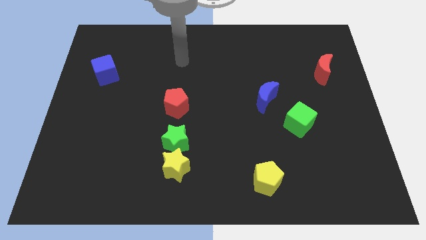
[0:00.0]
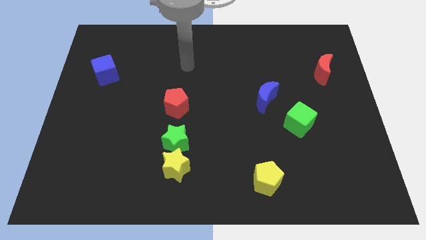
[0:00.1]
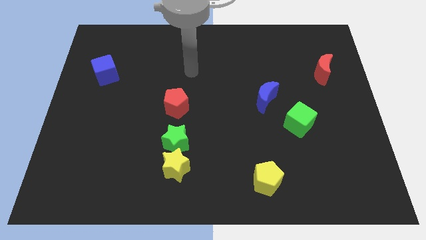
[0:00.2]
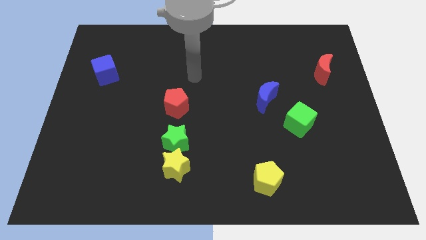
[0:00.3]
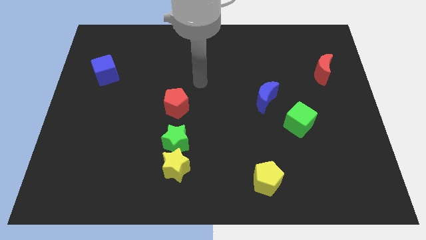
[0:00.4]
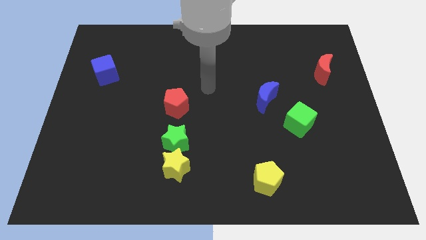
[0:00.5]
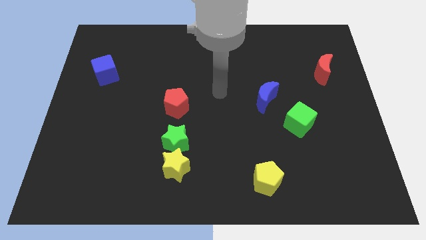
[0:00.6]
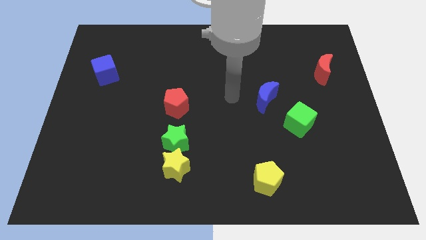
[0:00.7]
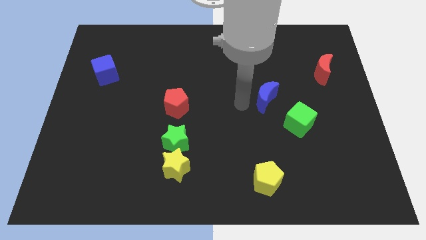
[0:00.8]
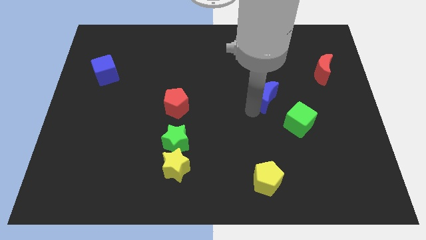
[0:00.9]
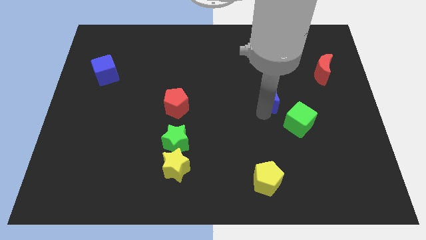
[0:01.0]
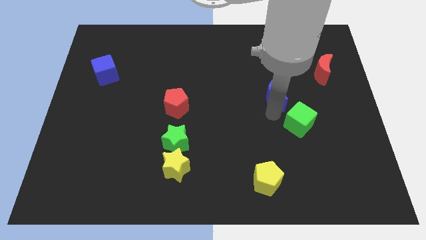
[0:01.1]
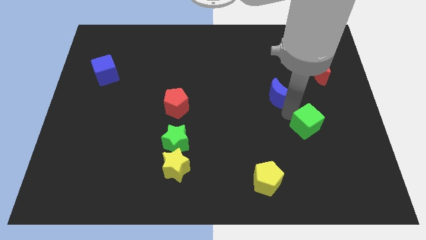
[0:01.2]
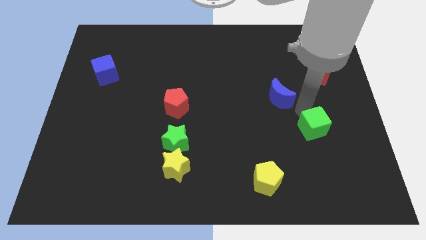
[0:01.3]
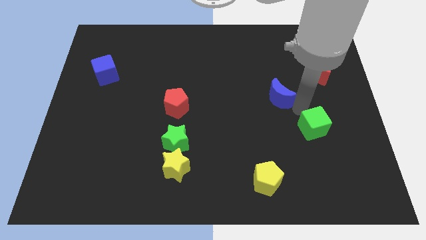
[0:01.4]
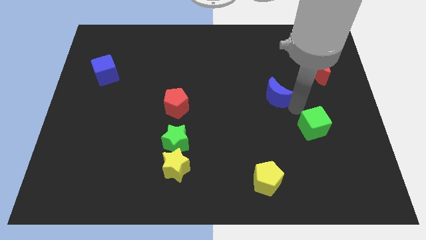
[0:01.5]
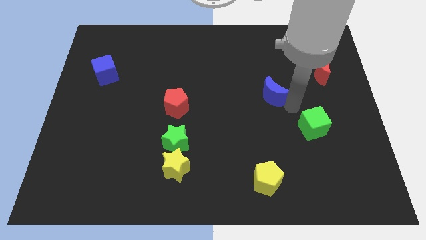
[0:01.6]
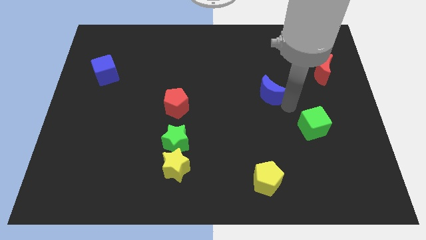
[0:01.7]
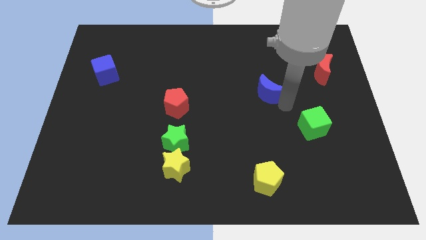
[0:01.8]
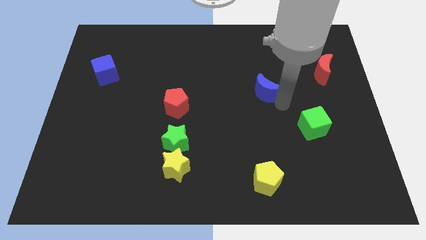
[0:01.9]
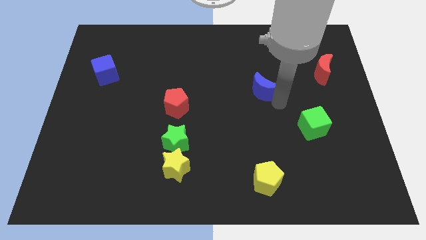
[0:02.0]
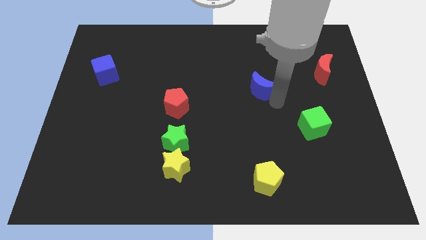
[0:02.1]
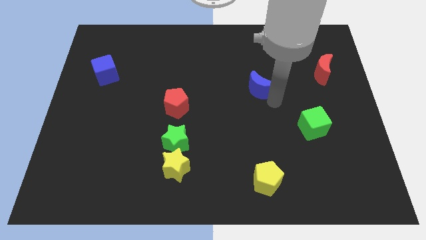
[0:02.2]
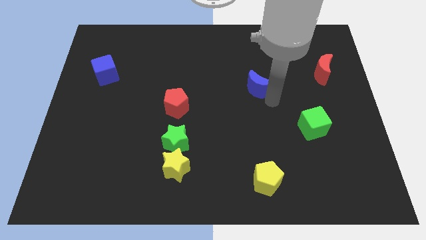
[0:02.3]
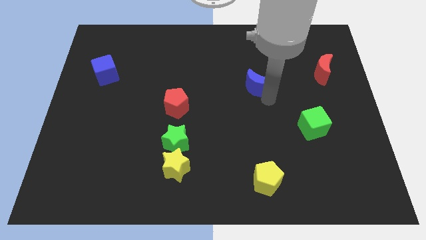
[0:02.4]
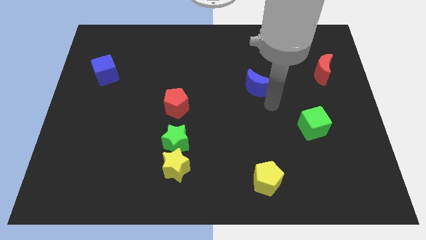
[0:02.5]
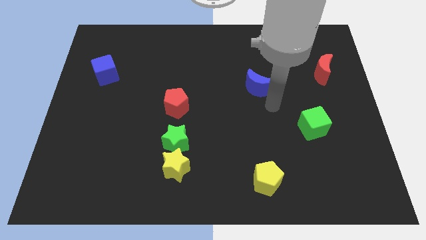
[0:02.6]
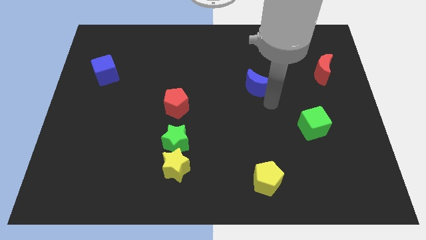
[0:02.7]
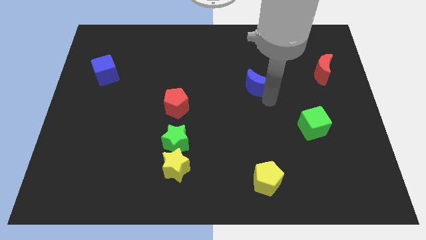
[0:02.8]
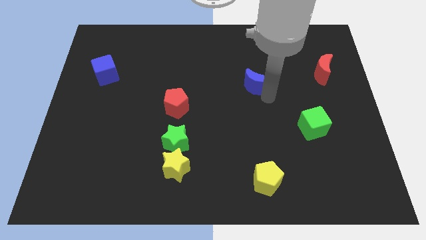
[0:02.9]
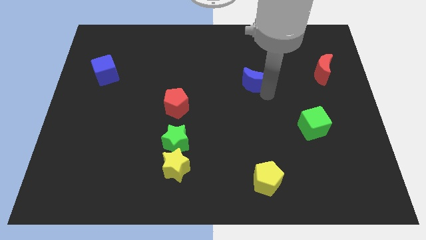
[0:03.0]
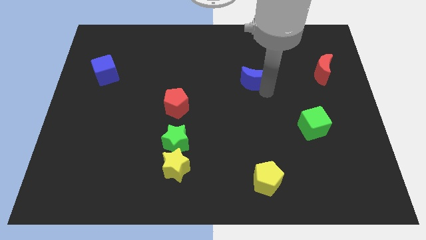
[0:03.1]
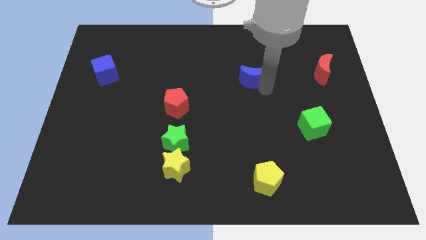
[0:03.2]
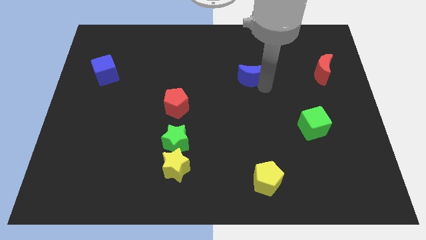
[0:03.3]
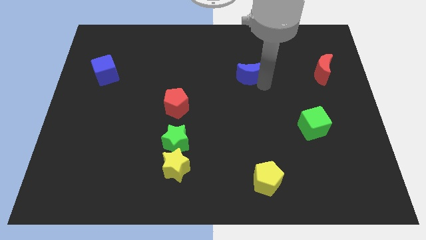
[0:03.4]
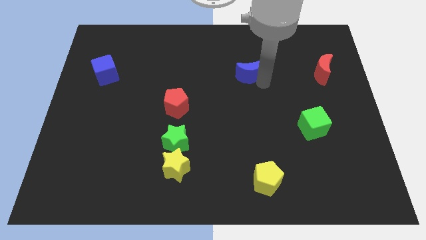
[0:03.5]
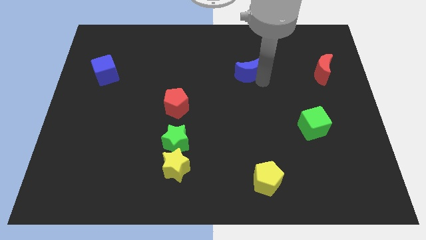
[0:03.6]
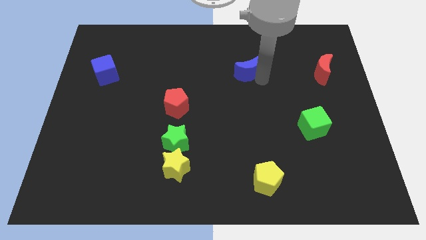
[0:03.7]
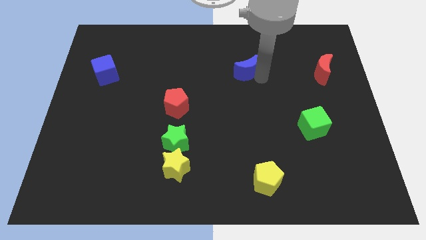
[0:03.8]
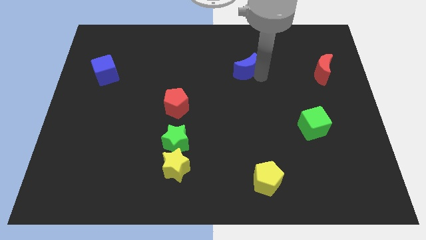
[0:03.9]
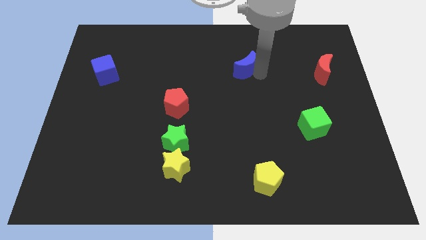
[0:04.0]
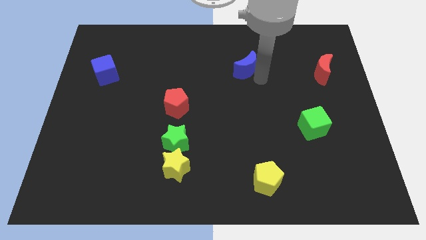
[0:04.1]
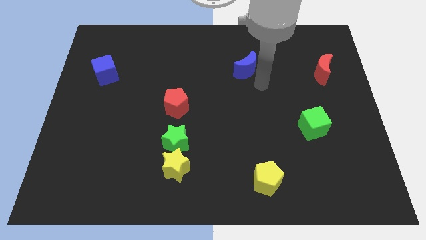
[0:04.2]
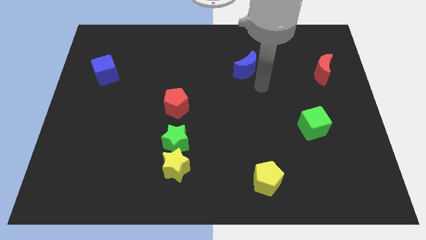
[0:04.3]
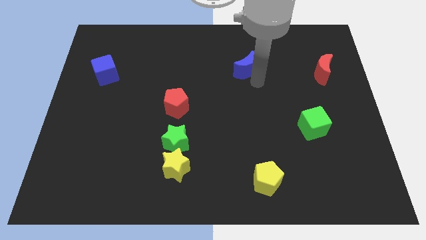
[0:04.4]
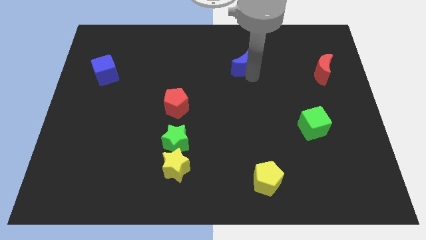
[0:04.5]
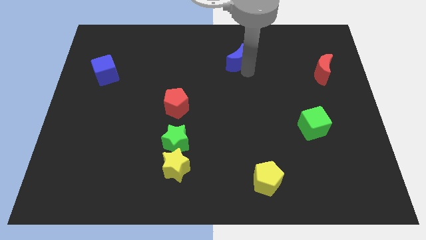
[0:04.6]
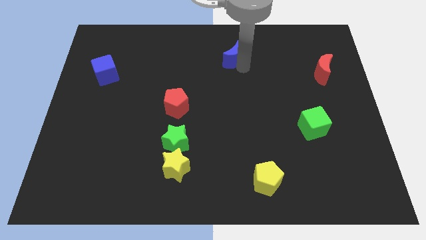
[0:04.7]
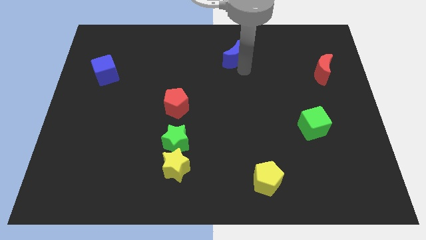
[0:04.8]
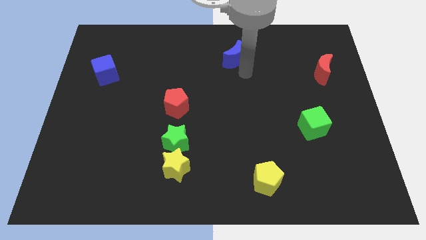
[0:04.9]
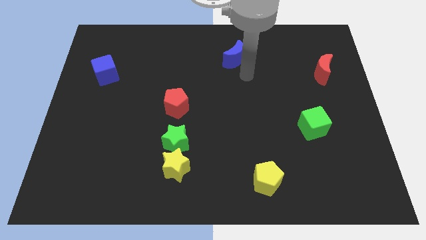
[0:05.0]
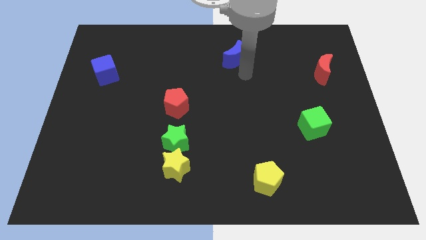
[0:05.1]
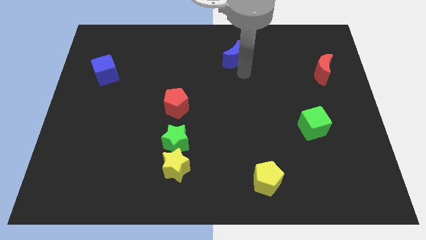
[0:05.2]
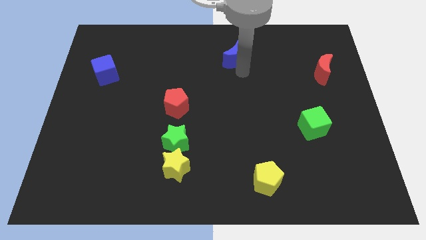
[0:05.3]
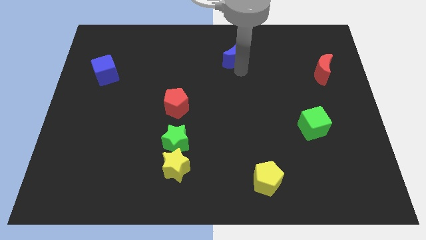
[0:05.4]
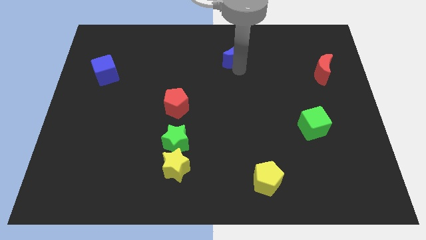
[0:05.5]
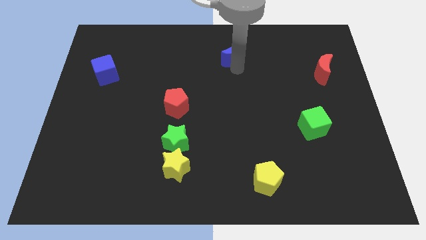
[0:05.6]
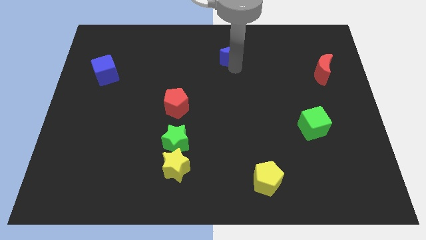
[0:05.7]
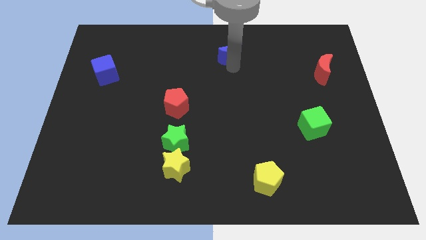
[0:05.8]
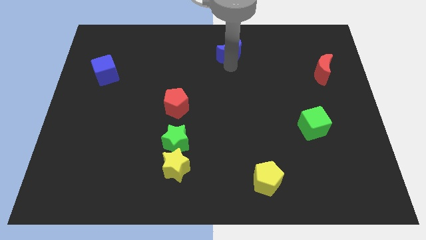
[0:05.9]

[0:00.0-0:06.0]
put the blue moon to the top side

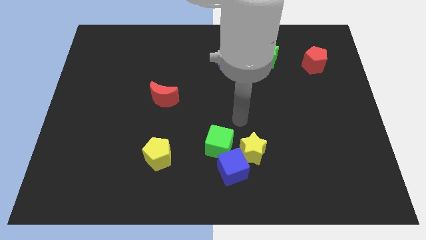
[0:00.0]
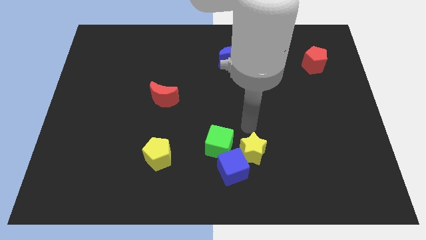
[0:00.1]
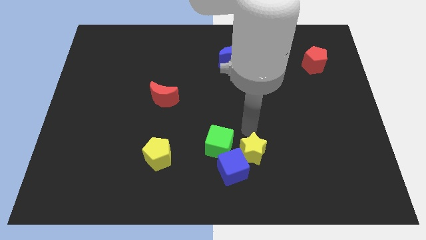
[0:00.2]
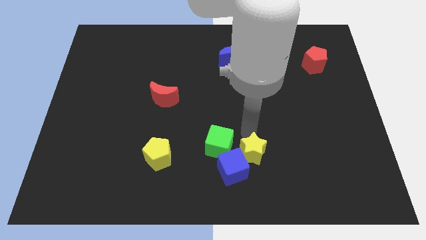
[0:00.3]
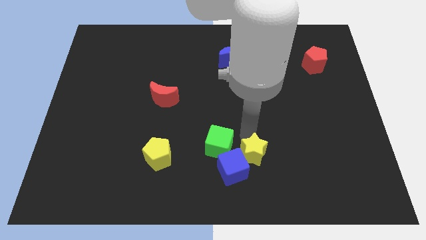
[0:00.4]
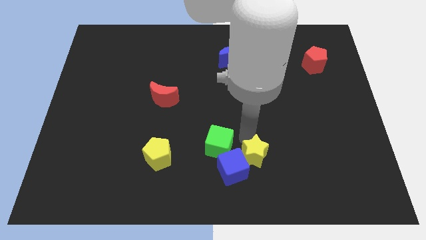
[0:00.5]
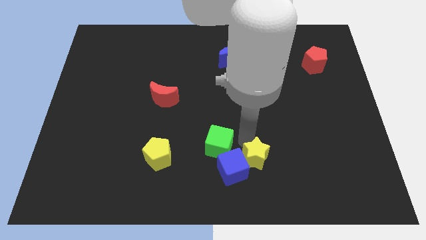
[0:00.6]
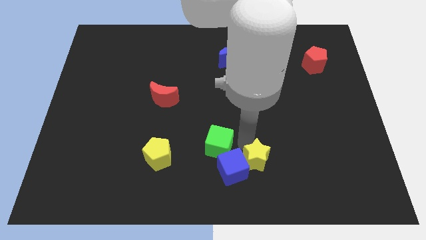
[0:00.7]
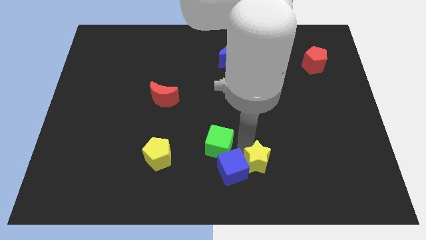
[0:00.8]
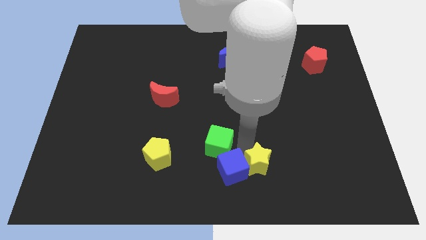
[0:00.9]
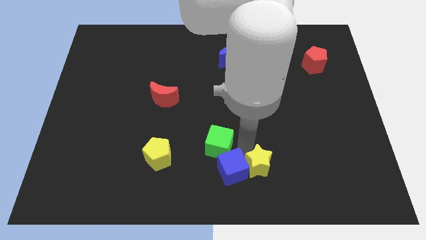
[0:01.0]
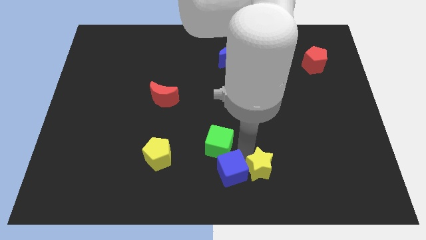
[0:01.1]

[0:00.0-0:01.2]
push the yellow star to the bottom side
